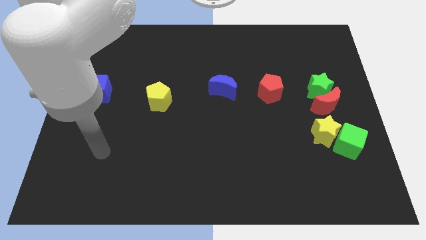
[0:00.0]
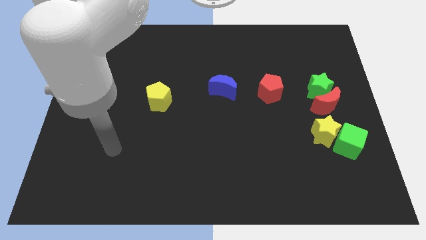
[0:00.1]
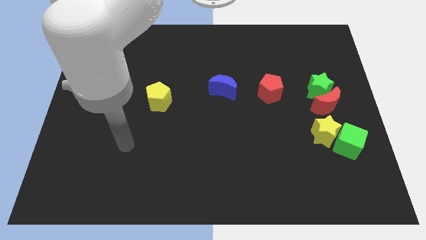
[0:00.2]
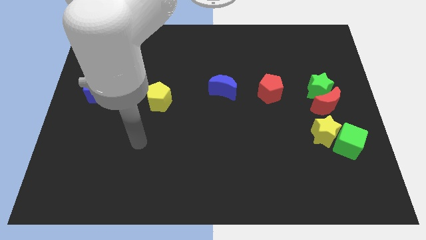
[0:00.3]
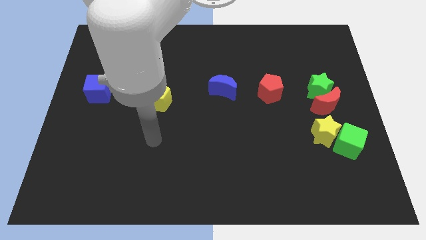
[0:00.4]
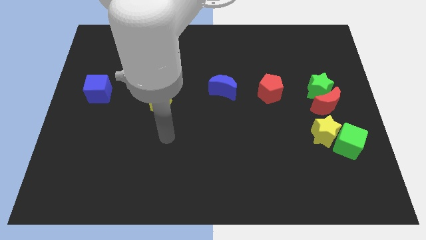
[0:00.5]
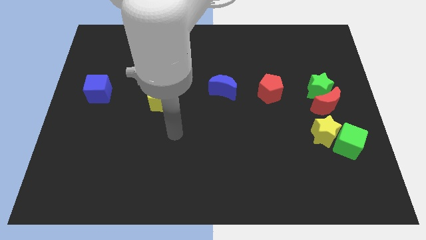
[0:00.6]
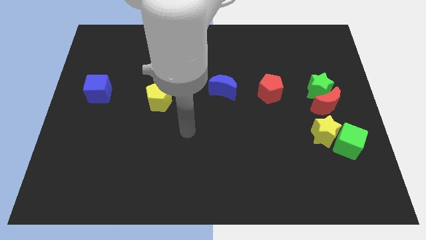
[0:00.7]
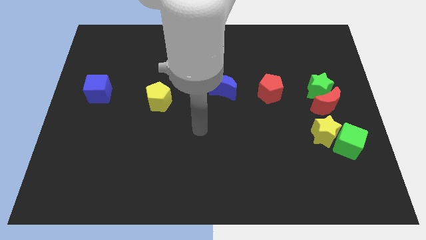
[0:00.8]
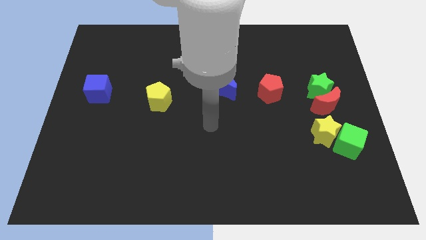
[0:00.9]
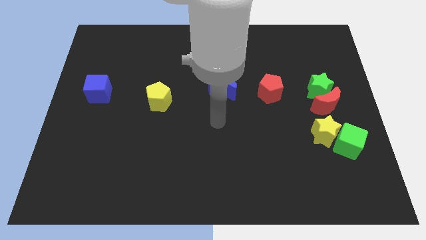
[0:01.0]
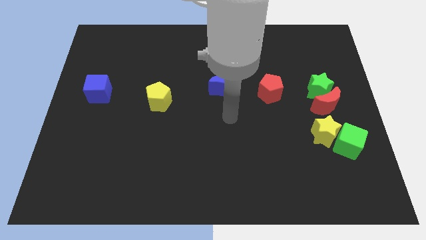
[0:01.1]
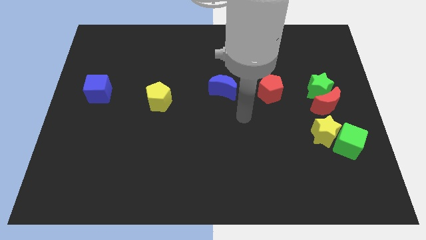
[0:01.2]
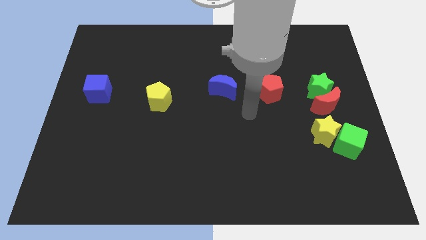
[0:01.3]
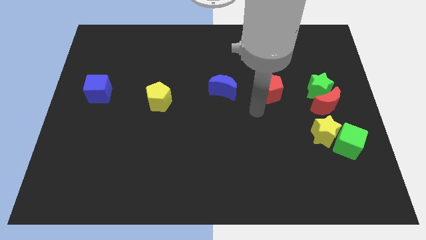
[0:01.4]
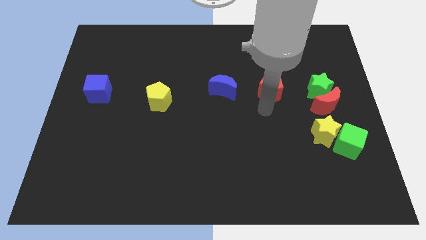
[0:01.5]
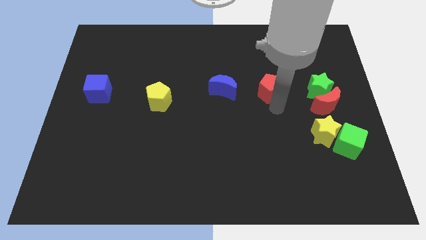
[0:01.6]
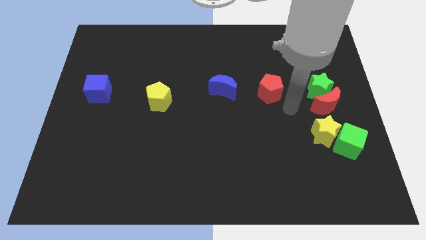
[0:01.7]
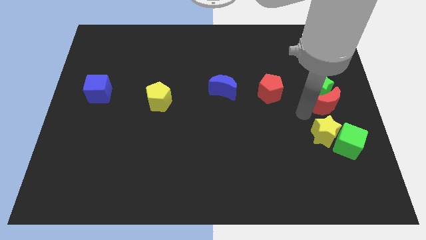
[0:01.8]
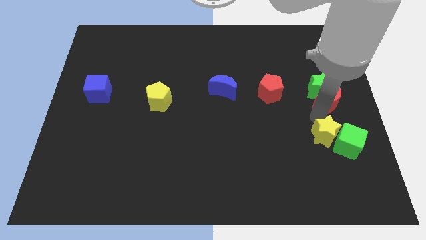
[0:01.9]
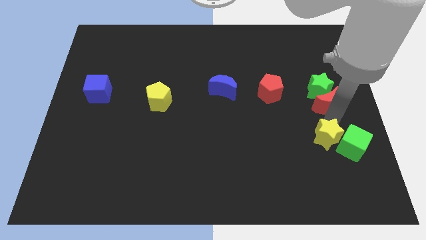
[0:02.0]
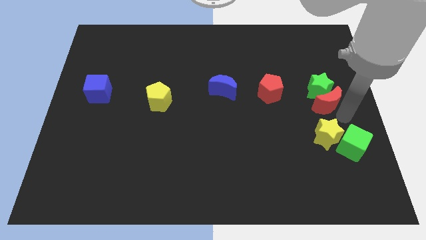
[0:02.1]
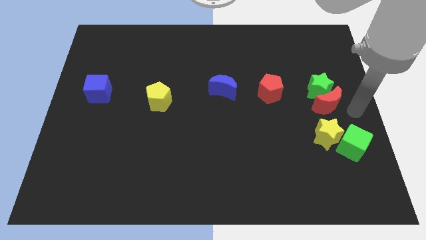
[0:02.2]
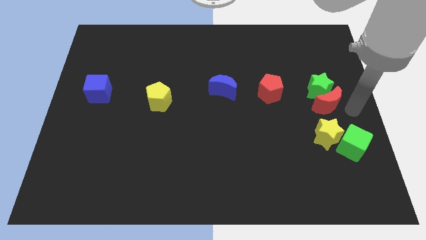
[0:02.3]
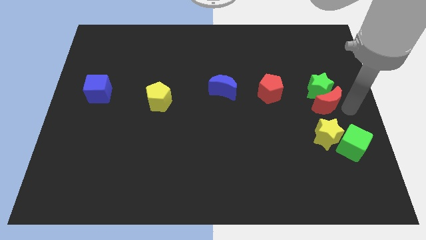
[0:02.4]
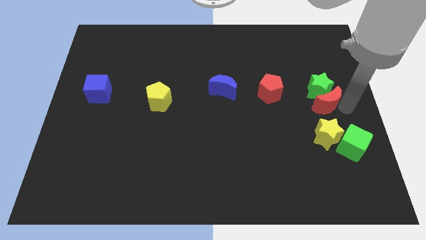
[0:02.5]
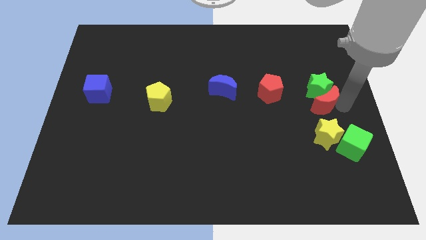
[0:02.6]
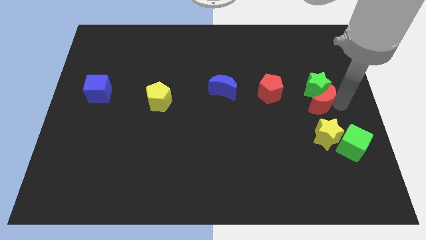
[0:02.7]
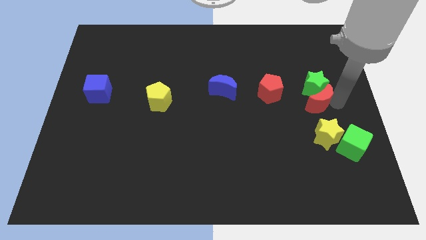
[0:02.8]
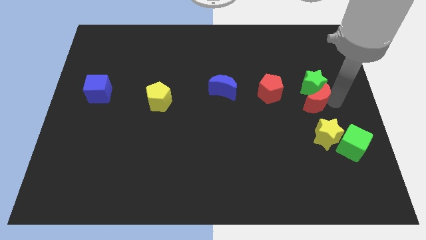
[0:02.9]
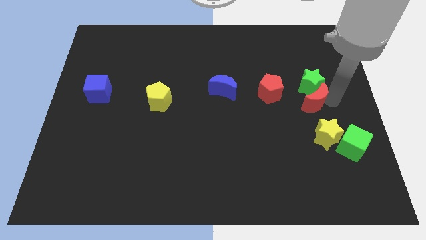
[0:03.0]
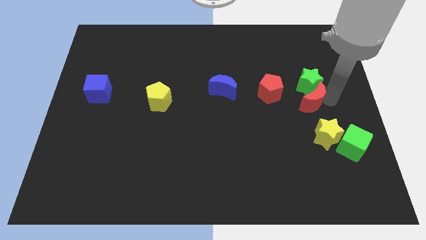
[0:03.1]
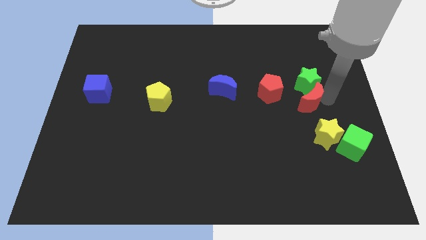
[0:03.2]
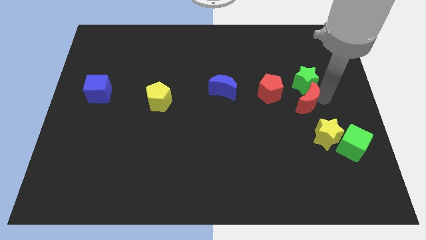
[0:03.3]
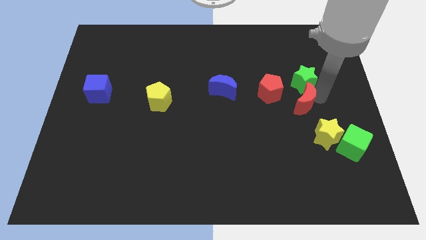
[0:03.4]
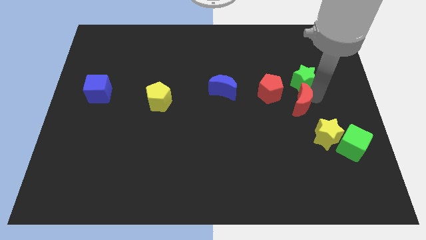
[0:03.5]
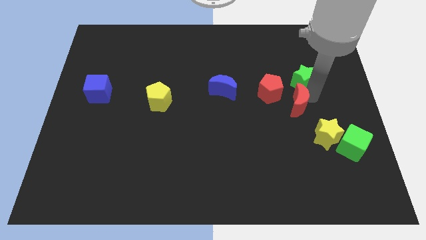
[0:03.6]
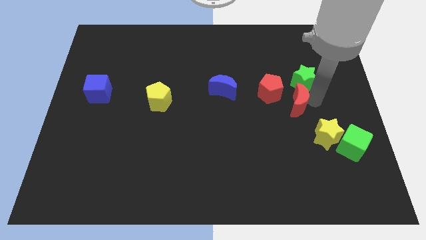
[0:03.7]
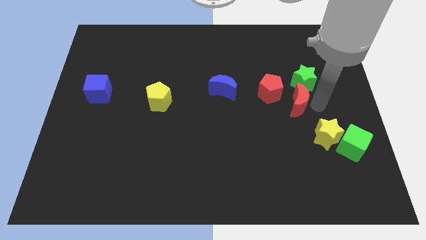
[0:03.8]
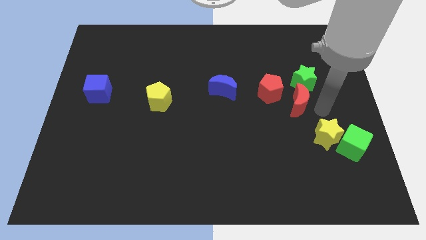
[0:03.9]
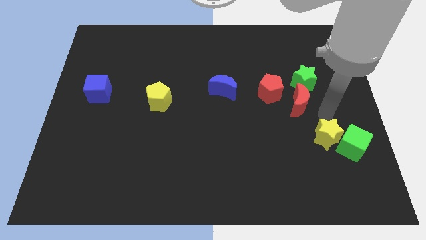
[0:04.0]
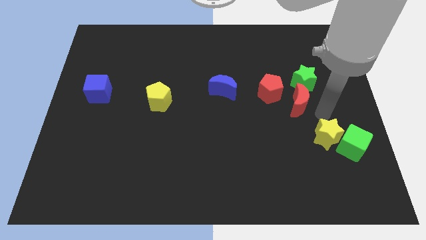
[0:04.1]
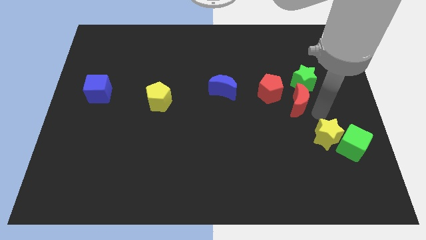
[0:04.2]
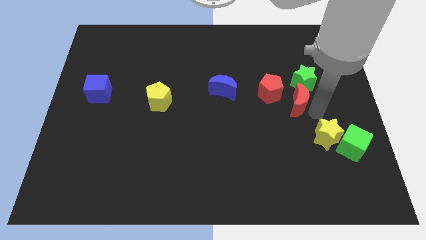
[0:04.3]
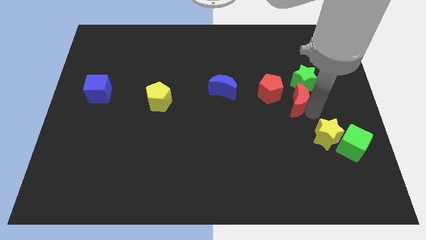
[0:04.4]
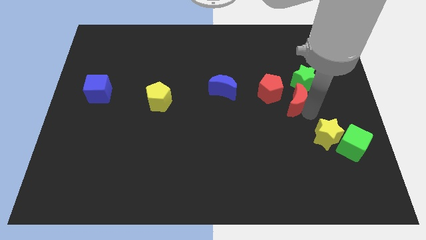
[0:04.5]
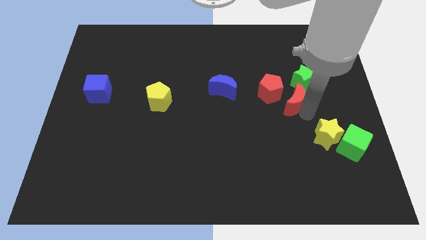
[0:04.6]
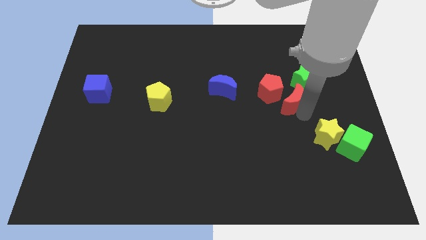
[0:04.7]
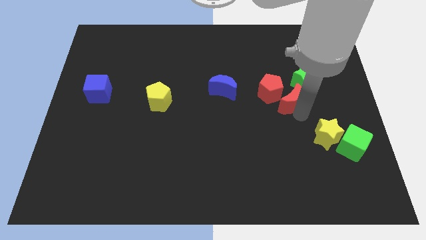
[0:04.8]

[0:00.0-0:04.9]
move the red moon next to the red pentagon

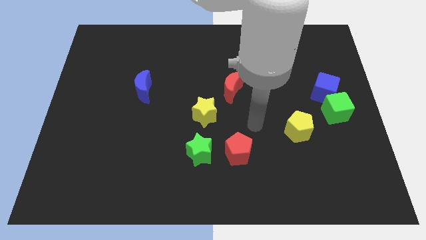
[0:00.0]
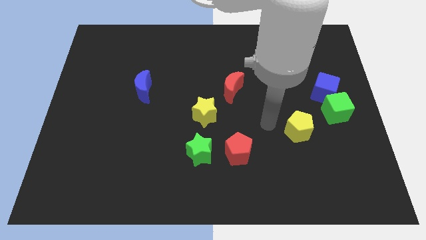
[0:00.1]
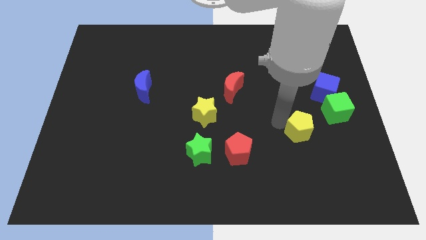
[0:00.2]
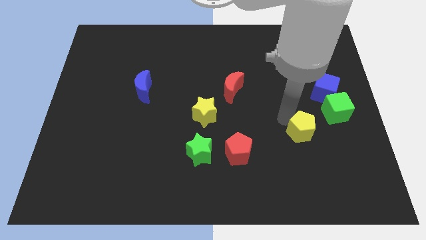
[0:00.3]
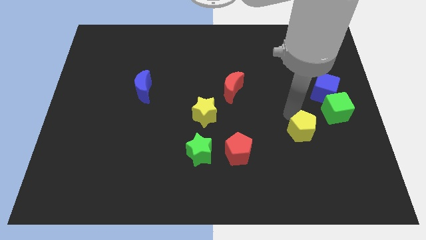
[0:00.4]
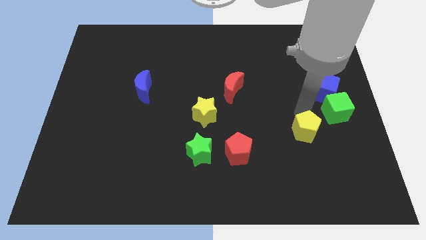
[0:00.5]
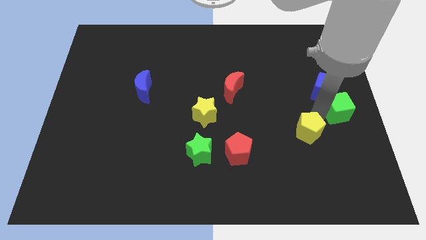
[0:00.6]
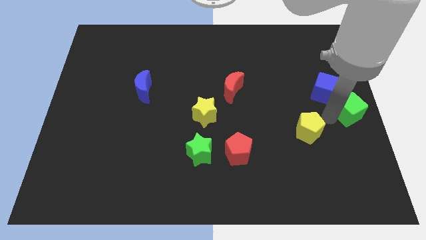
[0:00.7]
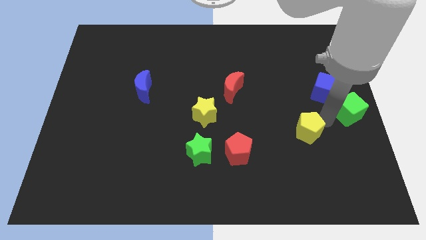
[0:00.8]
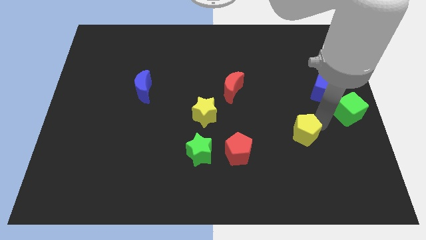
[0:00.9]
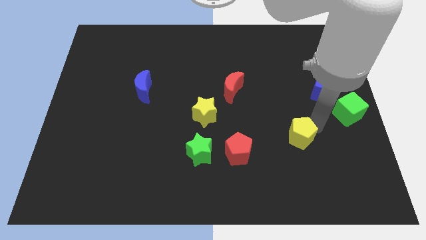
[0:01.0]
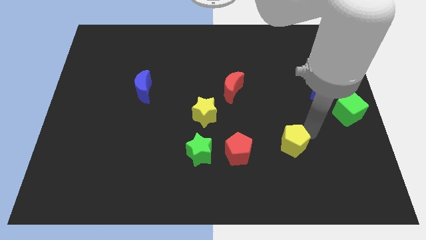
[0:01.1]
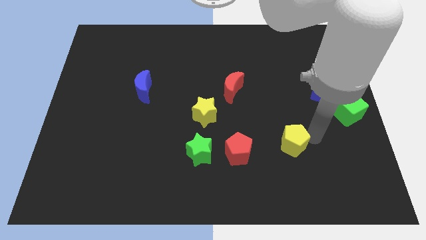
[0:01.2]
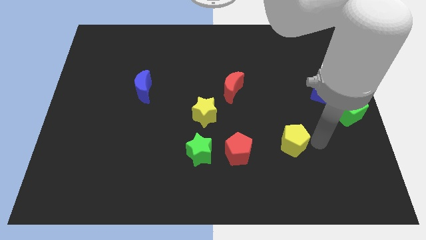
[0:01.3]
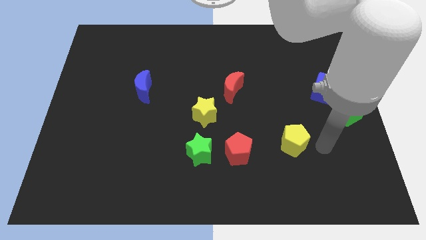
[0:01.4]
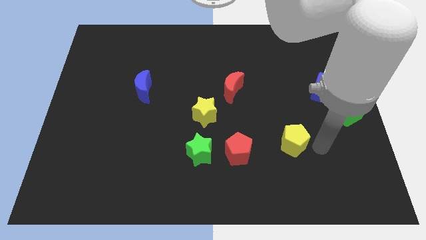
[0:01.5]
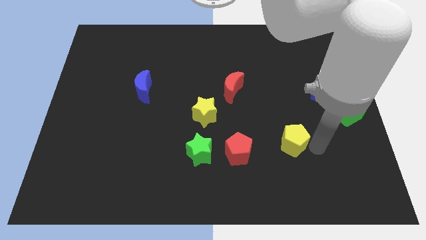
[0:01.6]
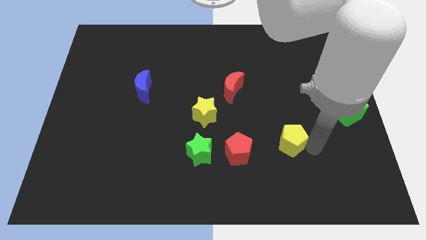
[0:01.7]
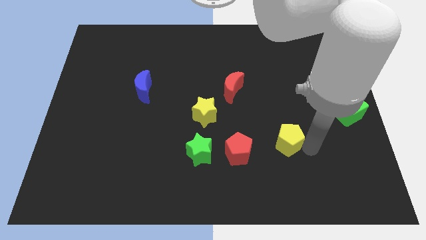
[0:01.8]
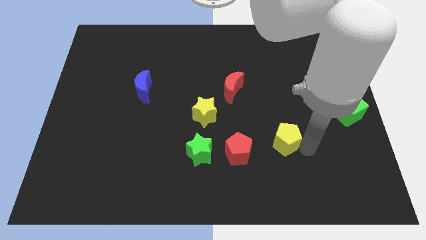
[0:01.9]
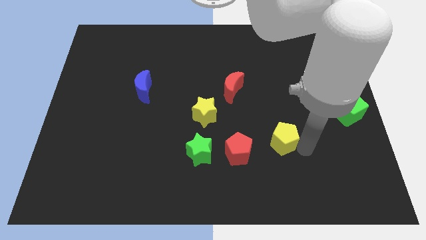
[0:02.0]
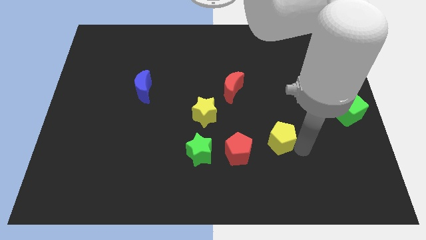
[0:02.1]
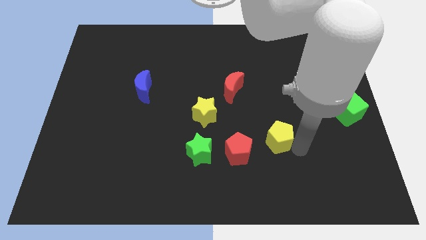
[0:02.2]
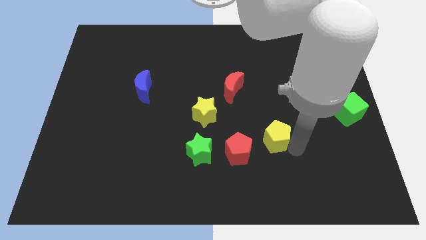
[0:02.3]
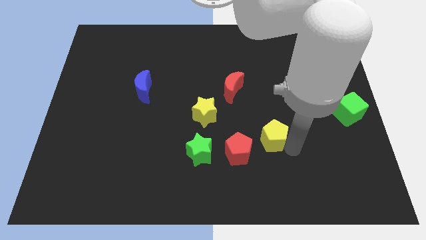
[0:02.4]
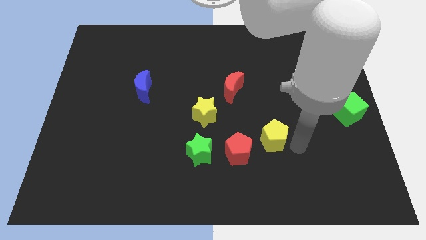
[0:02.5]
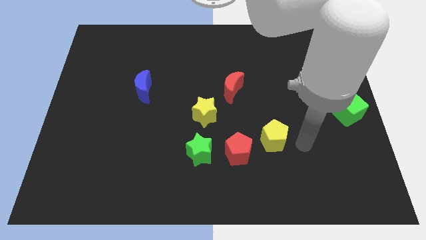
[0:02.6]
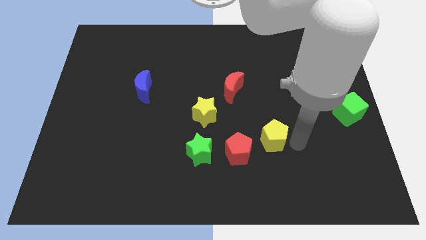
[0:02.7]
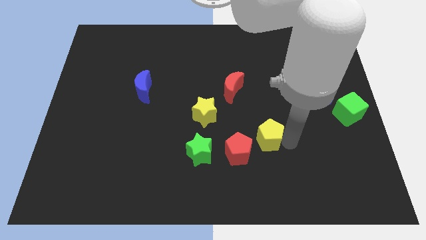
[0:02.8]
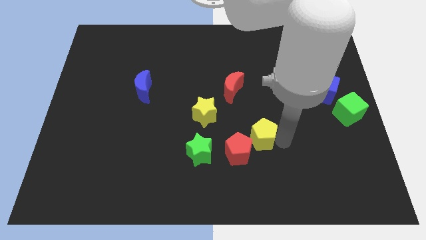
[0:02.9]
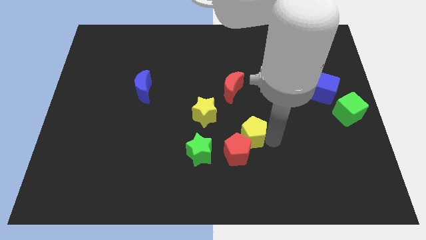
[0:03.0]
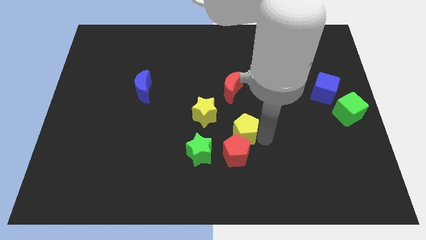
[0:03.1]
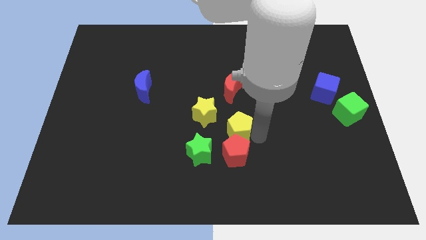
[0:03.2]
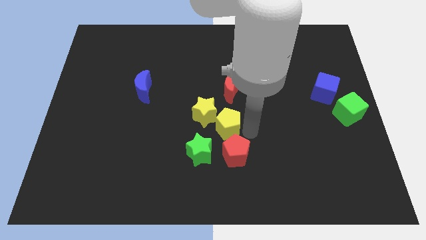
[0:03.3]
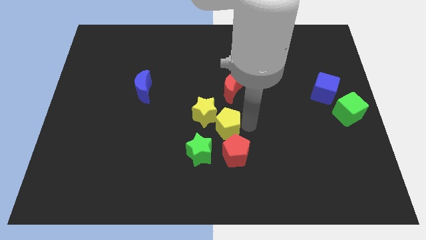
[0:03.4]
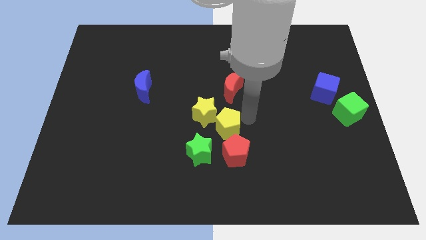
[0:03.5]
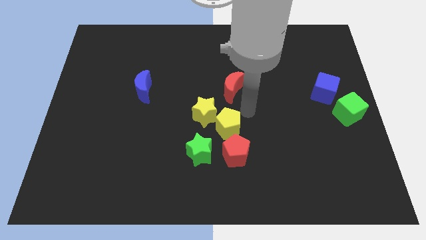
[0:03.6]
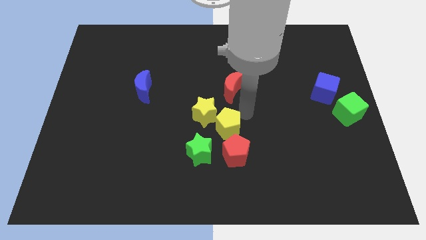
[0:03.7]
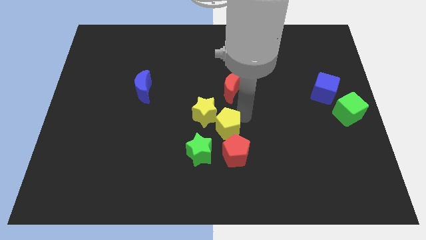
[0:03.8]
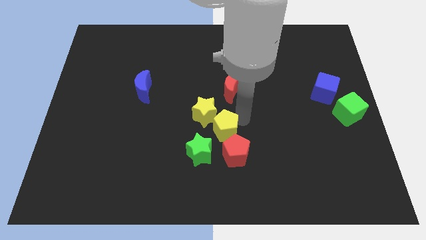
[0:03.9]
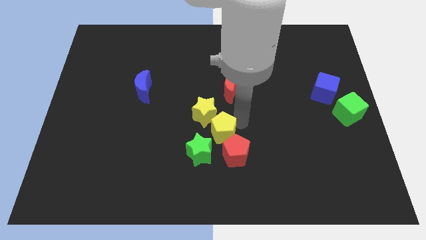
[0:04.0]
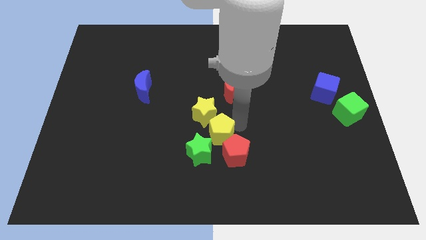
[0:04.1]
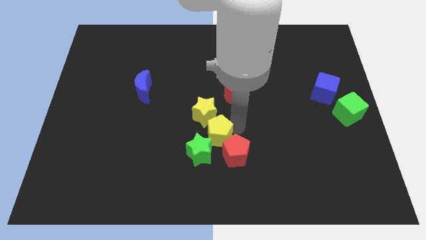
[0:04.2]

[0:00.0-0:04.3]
put the yellow pentagon close to the green star
